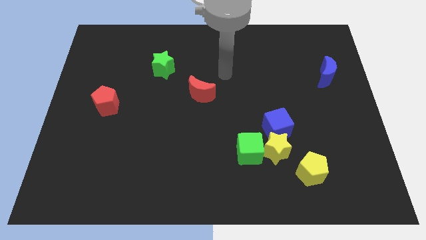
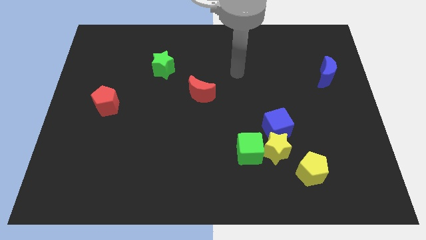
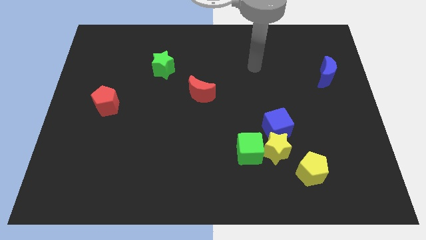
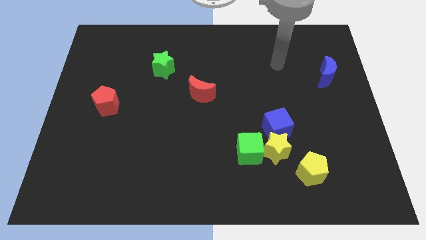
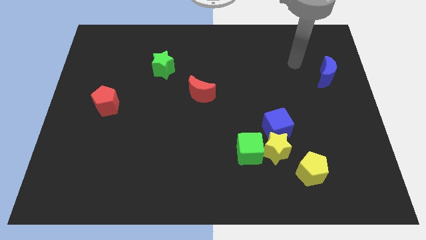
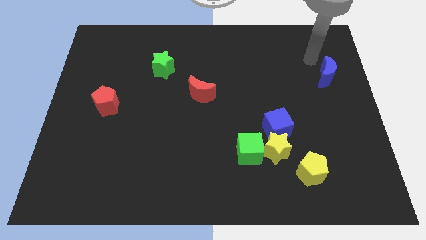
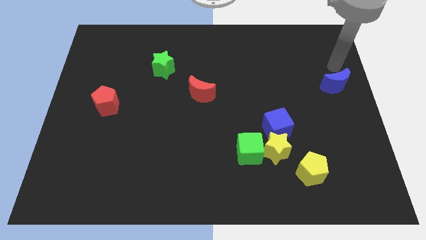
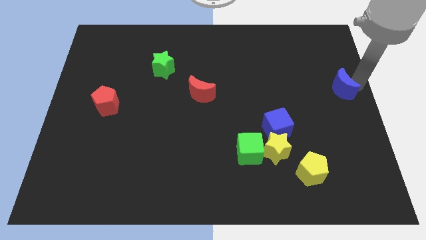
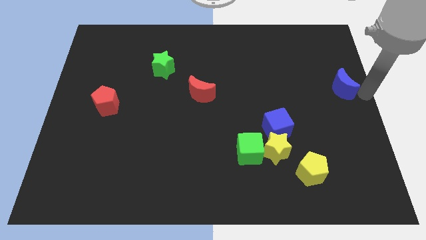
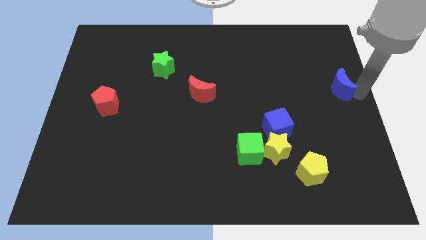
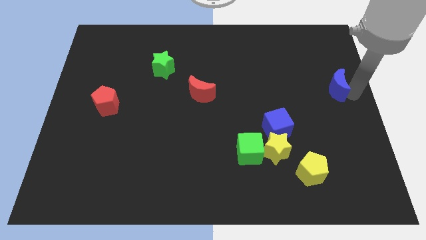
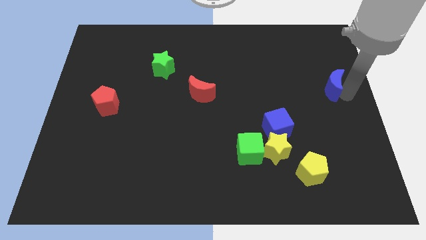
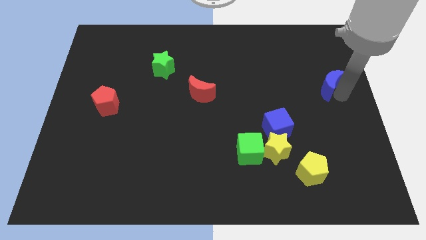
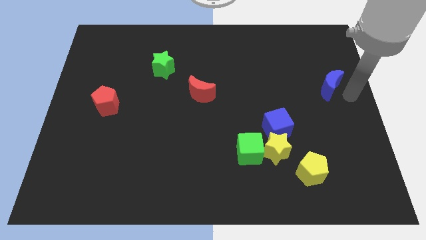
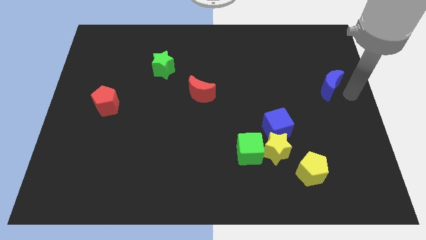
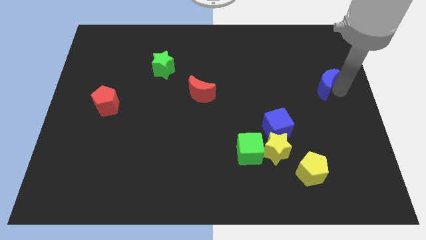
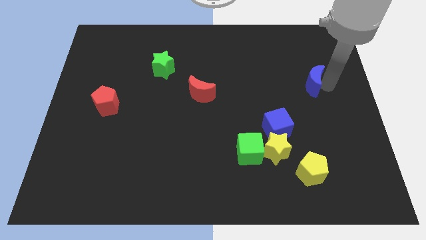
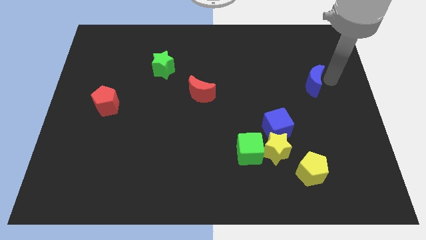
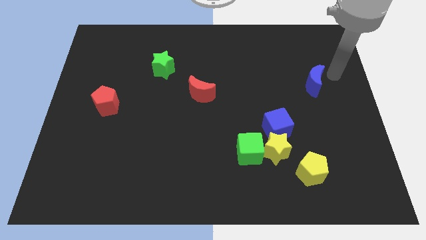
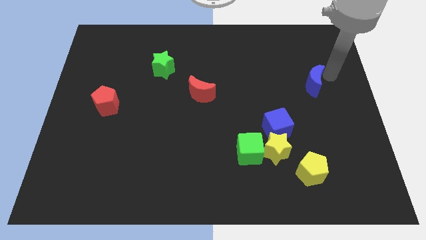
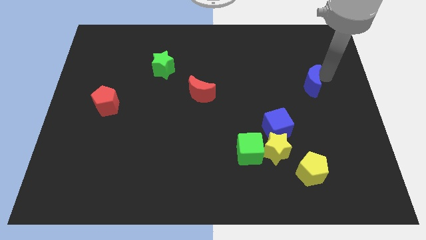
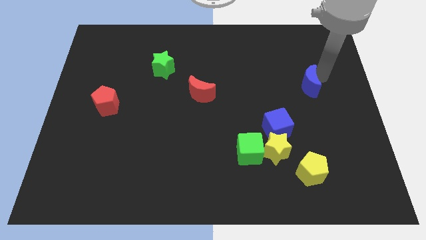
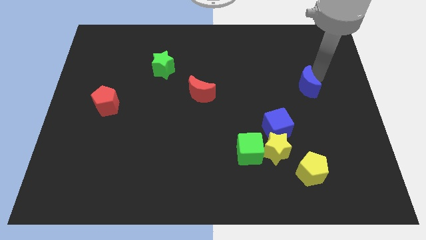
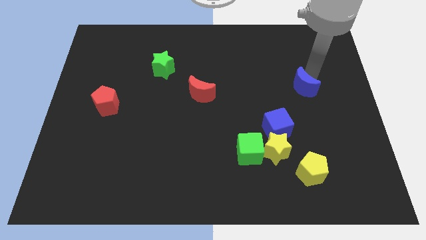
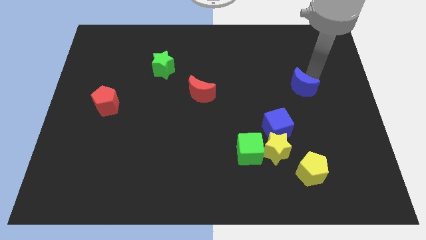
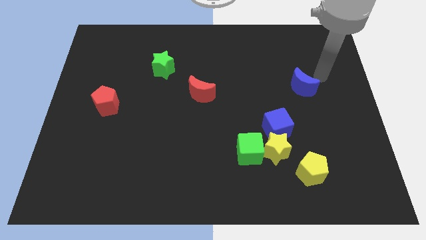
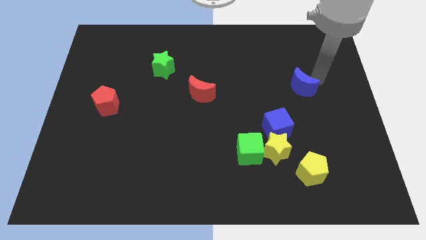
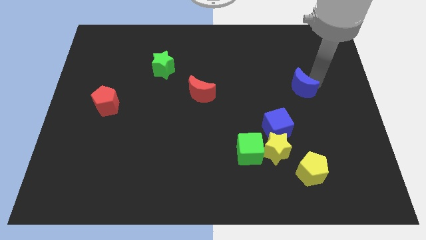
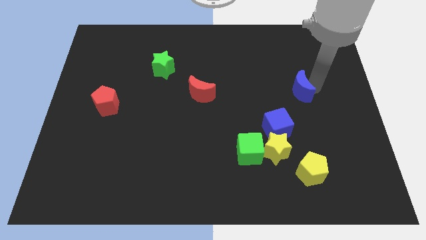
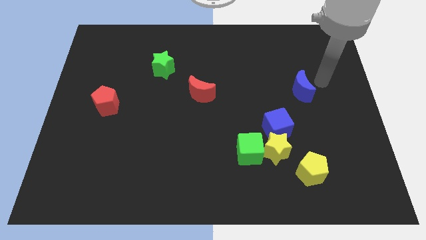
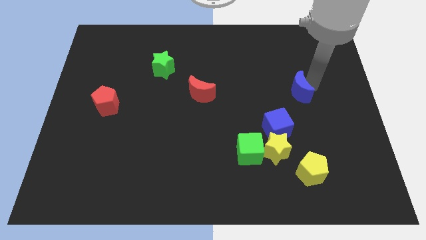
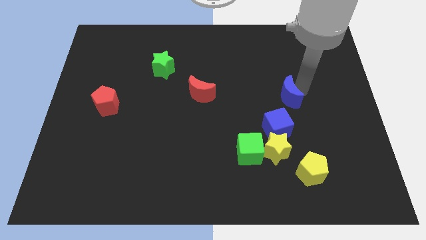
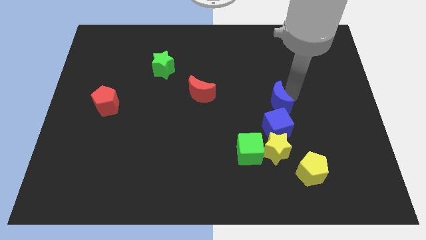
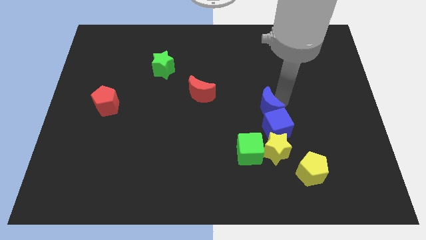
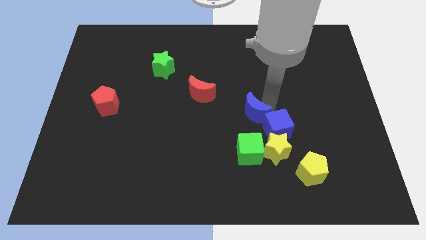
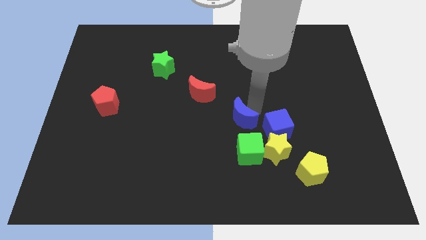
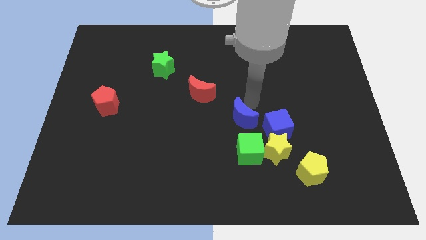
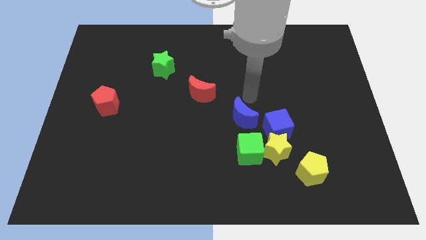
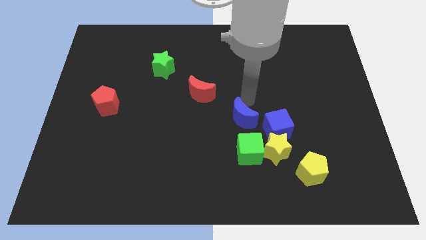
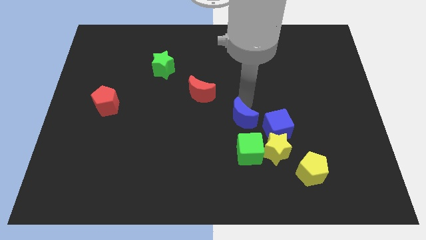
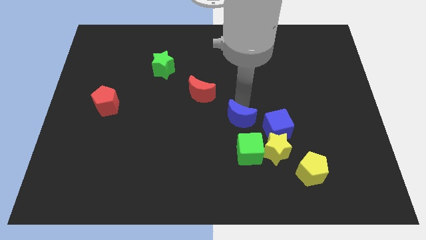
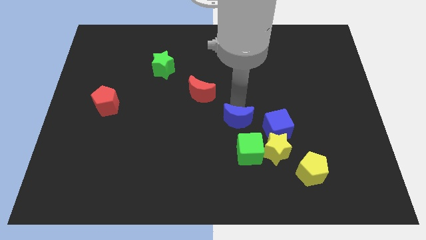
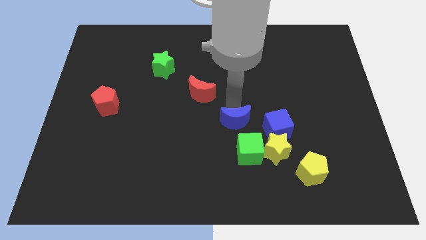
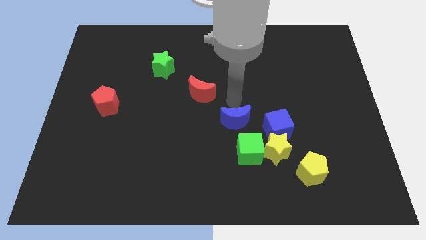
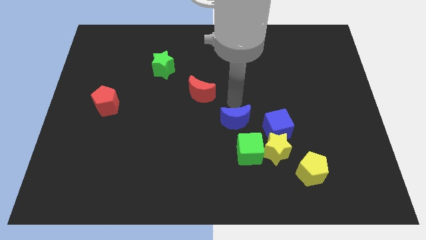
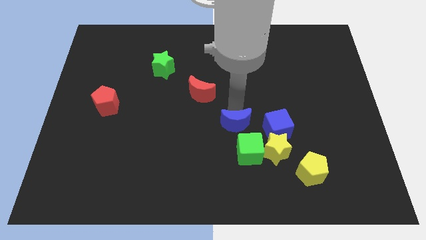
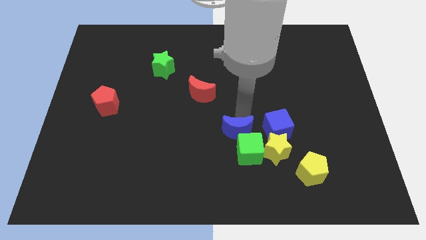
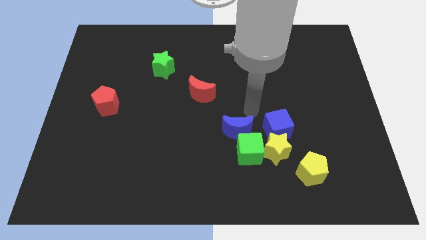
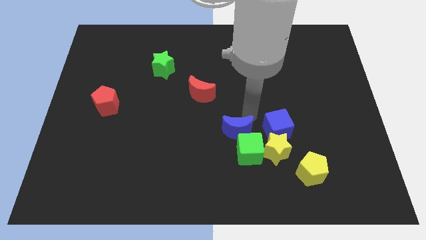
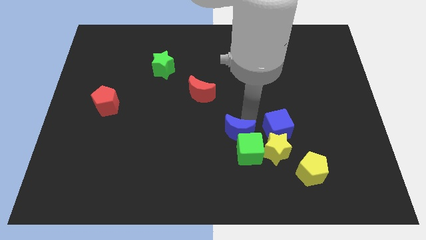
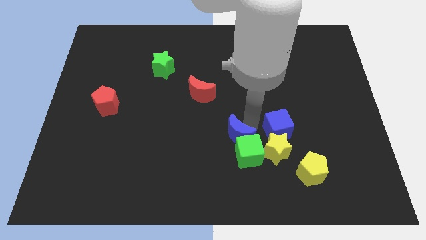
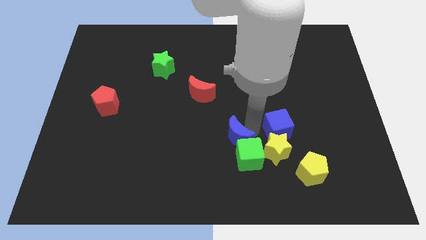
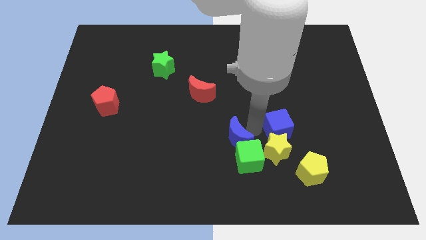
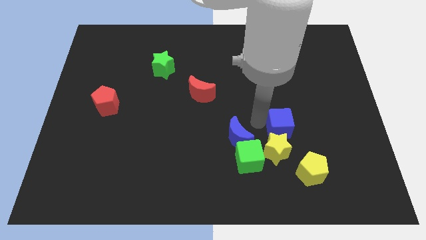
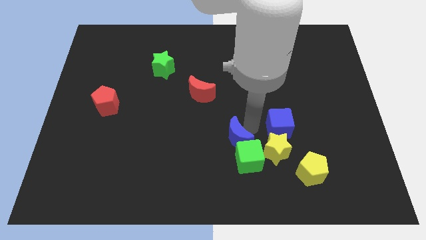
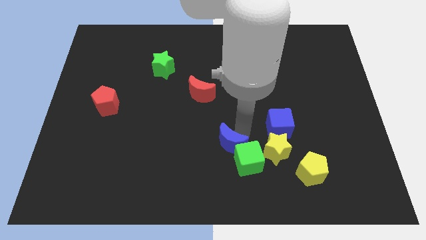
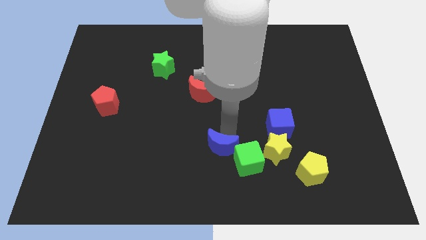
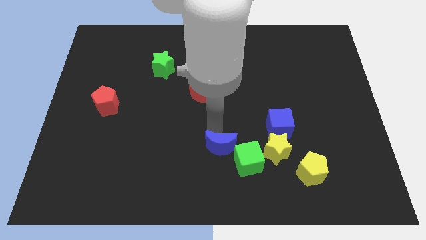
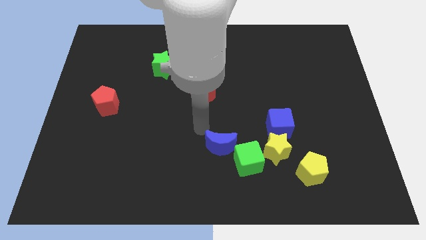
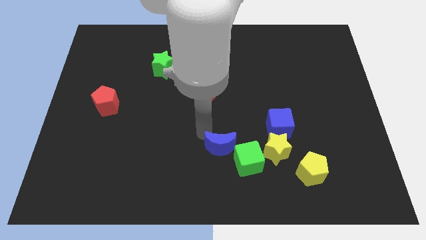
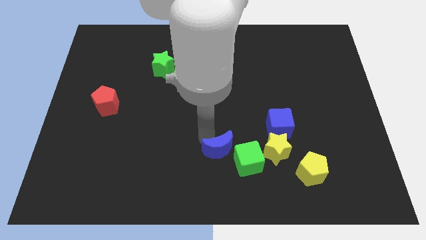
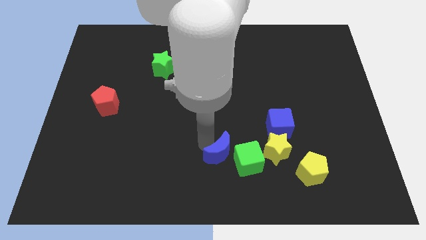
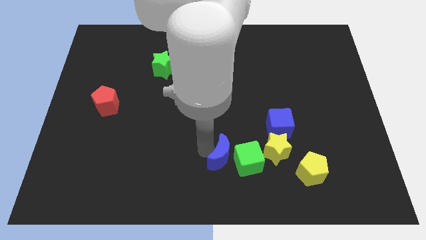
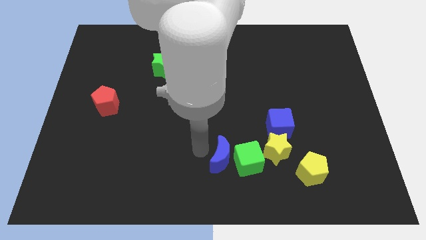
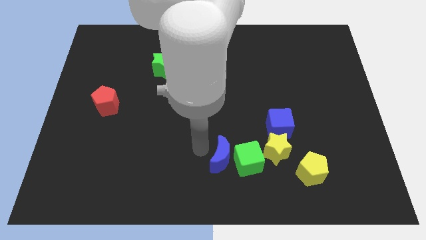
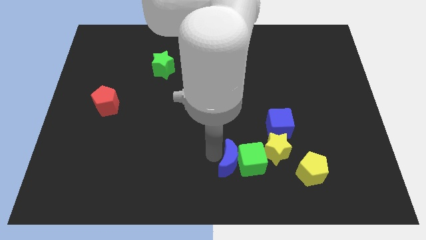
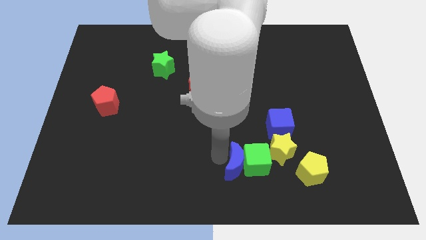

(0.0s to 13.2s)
put the blue moon just left of the yellow pentagon
